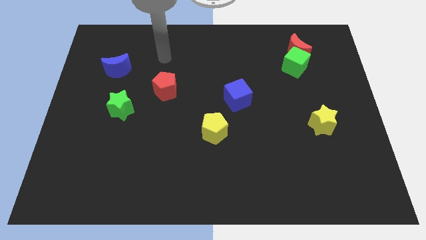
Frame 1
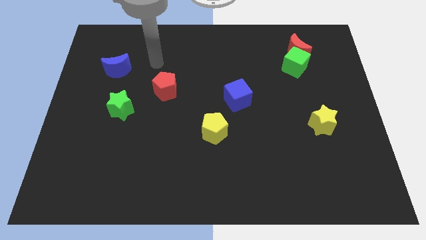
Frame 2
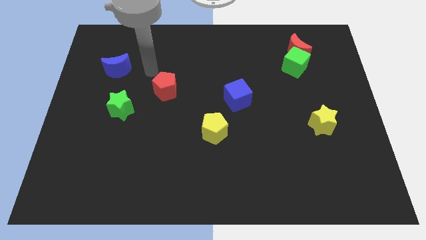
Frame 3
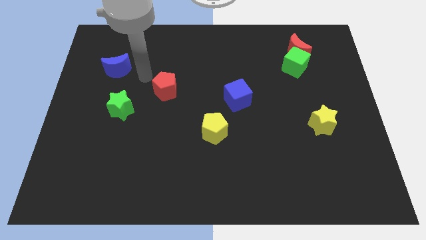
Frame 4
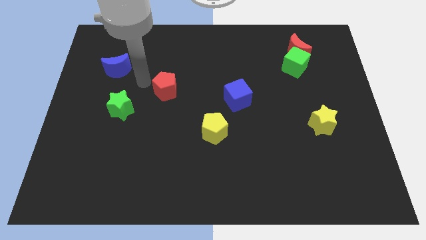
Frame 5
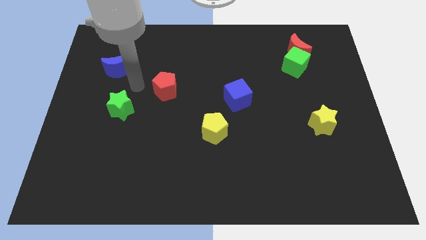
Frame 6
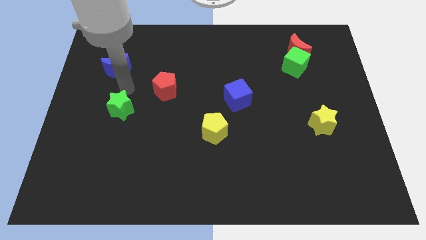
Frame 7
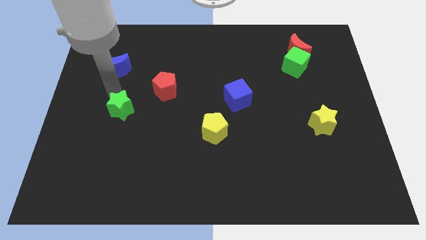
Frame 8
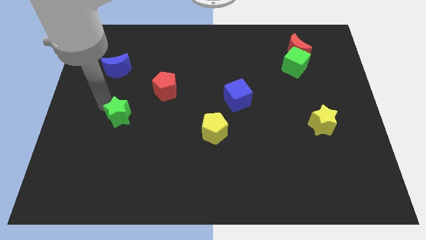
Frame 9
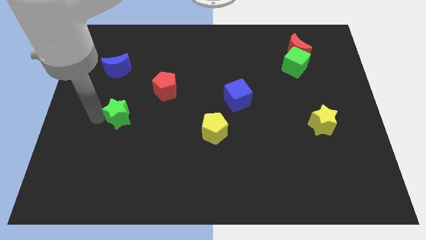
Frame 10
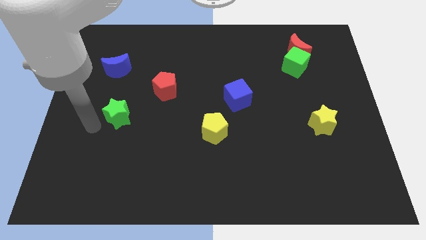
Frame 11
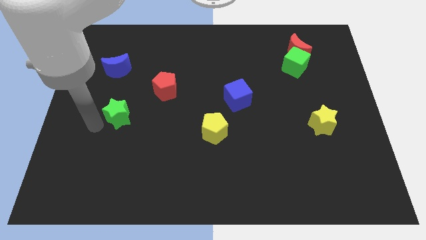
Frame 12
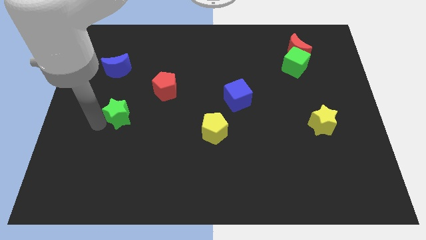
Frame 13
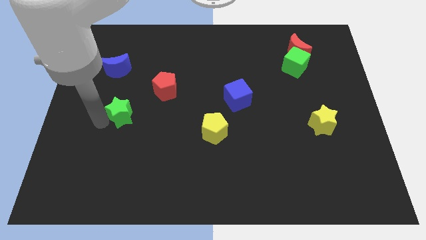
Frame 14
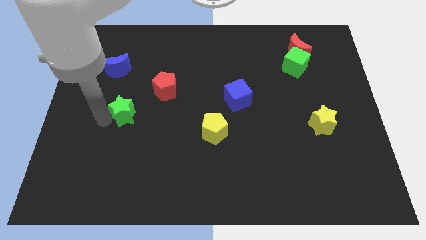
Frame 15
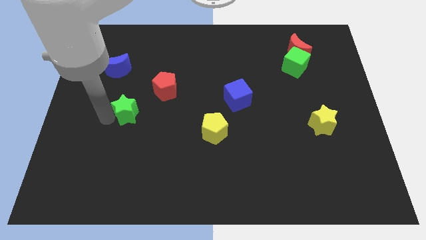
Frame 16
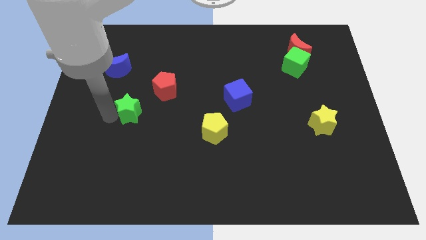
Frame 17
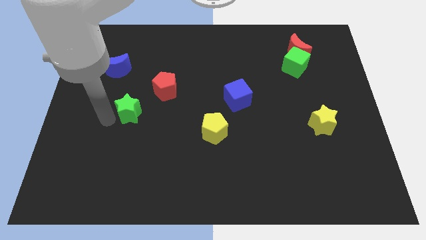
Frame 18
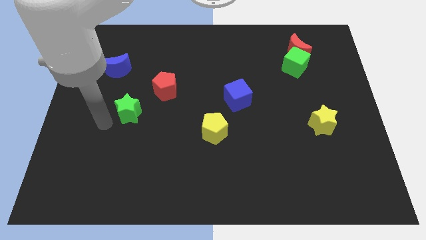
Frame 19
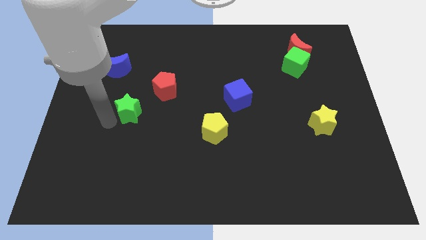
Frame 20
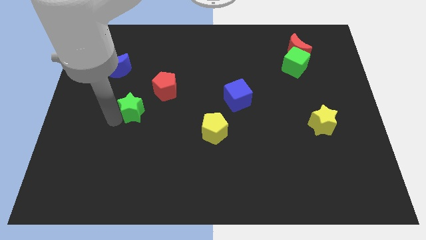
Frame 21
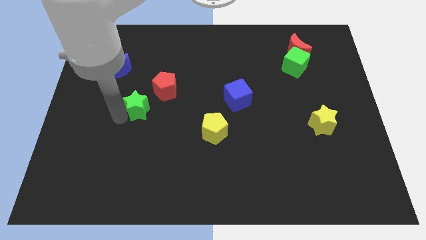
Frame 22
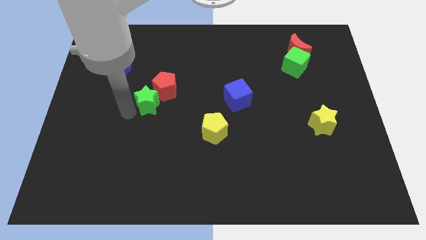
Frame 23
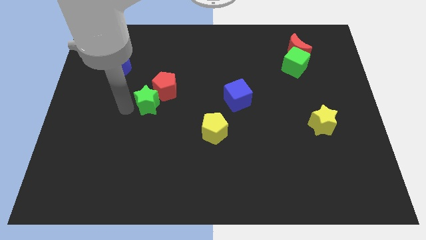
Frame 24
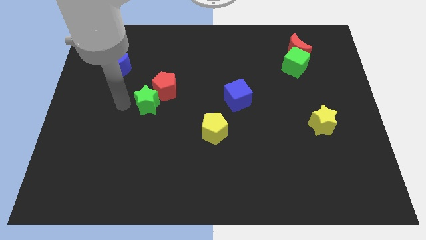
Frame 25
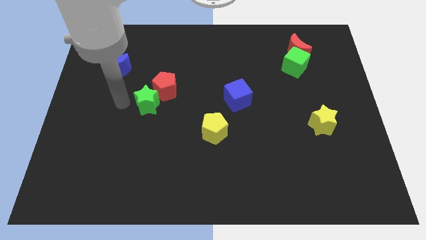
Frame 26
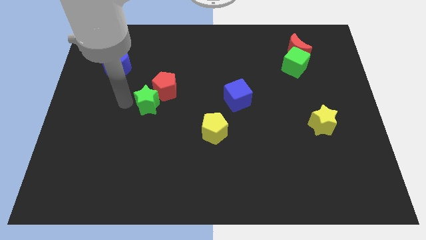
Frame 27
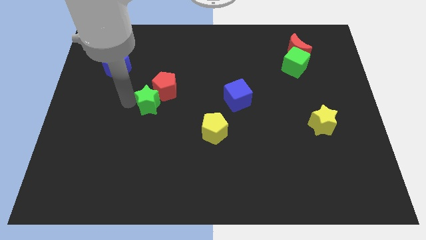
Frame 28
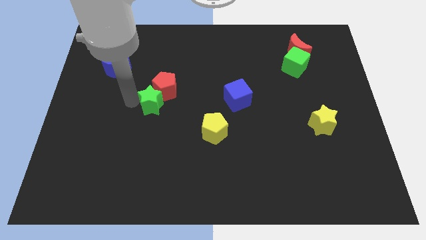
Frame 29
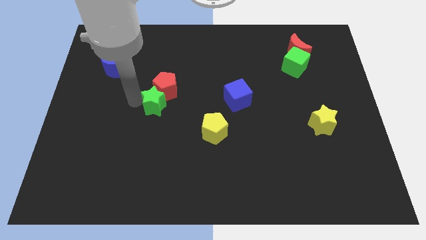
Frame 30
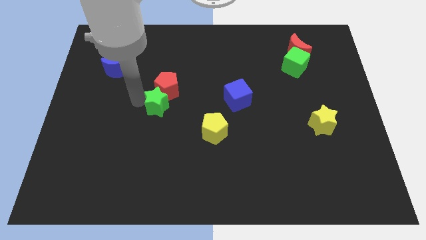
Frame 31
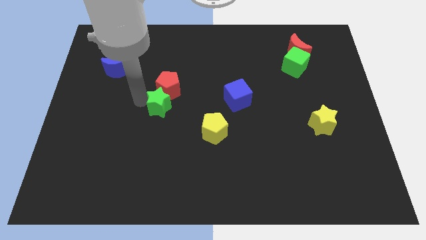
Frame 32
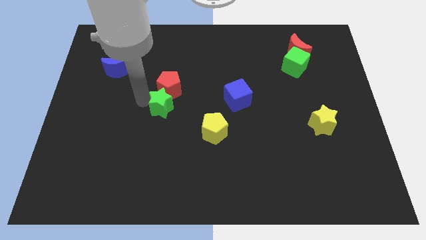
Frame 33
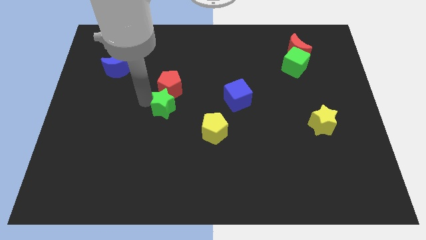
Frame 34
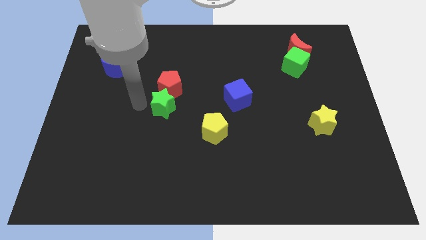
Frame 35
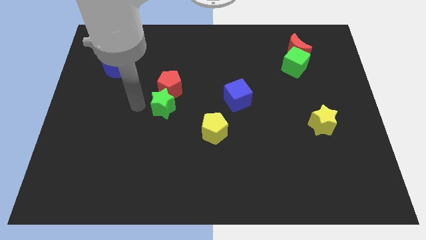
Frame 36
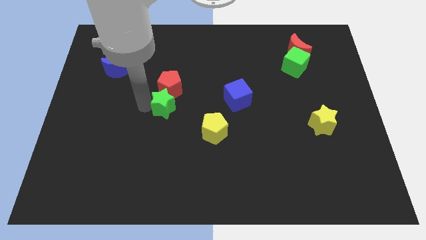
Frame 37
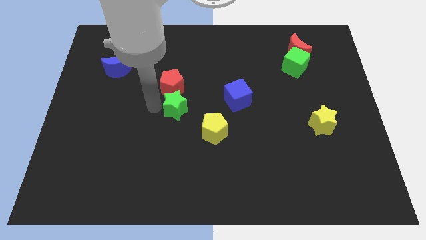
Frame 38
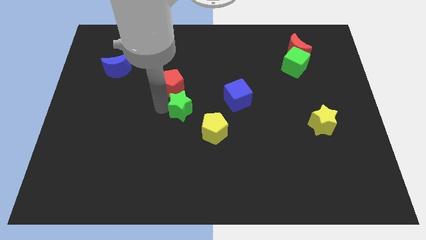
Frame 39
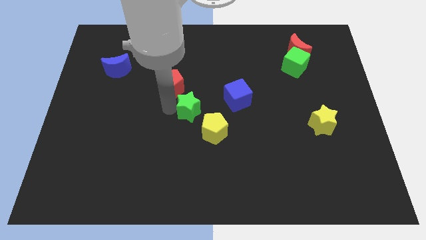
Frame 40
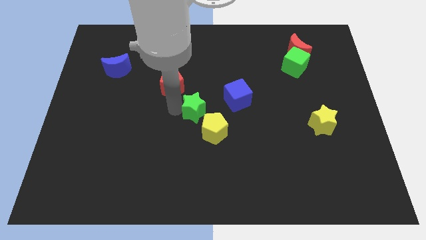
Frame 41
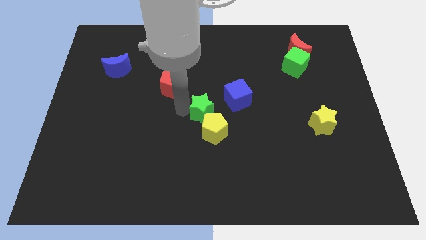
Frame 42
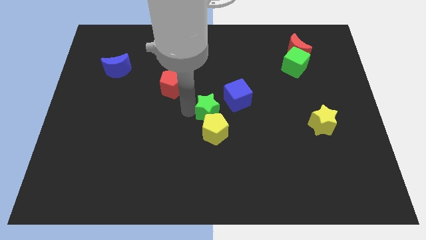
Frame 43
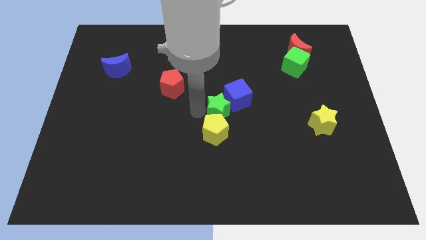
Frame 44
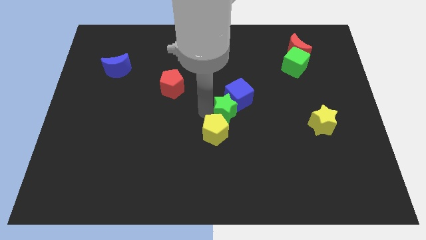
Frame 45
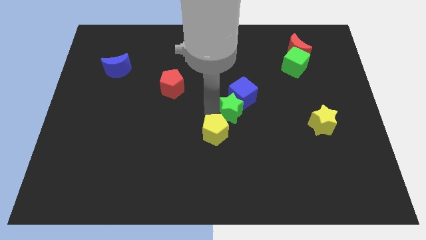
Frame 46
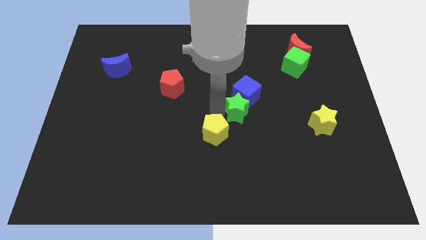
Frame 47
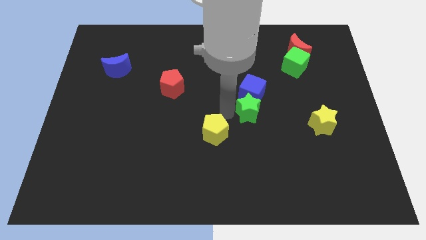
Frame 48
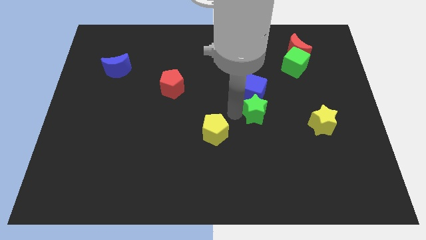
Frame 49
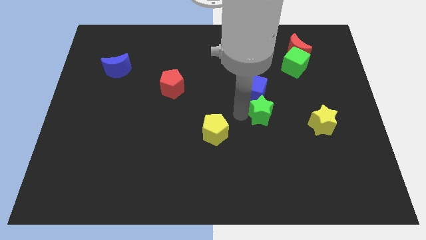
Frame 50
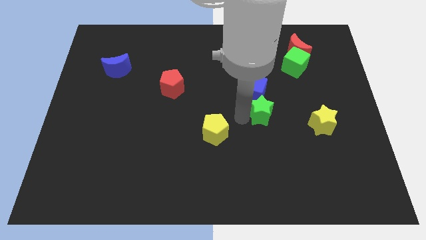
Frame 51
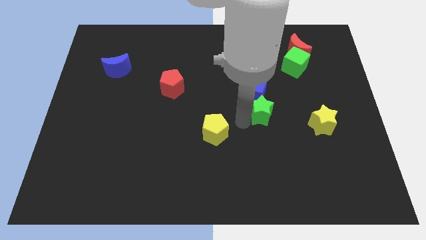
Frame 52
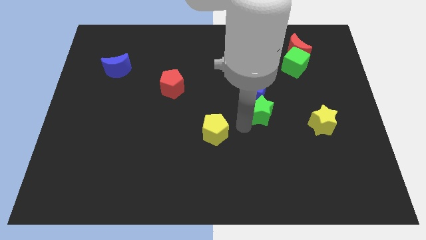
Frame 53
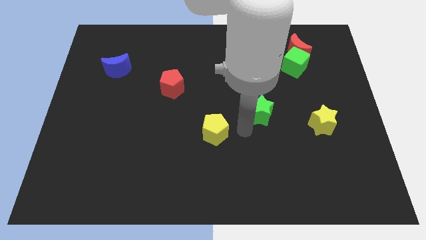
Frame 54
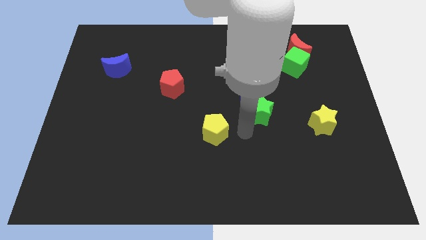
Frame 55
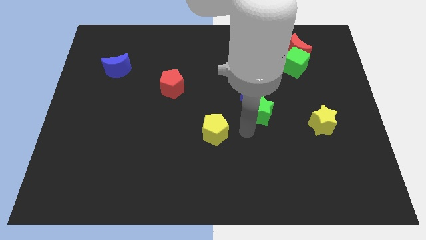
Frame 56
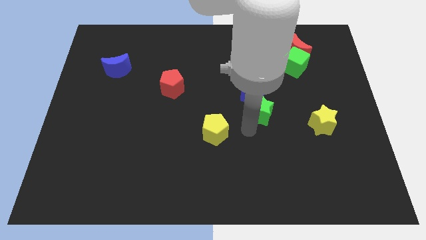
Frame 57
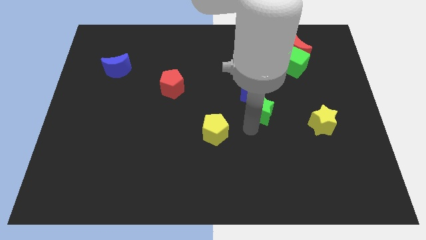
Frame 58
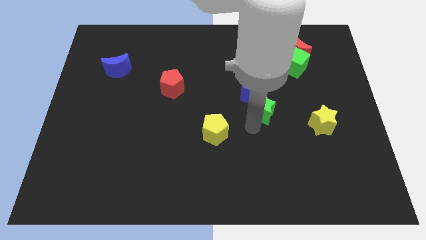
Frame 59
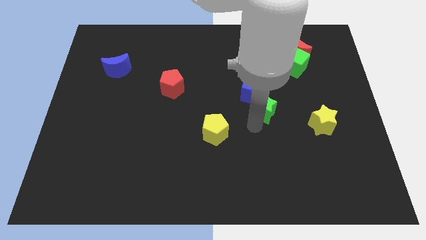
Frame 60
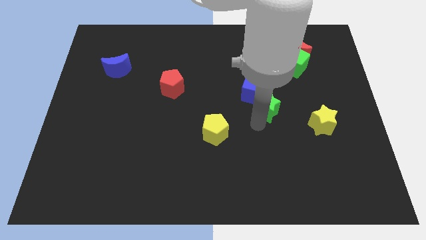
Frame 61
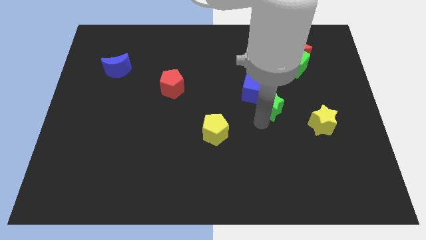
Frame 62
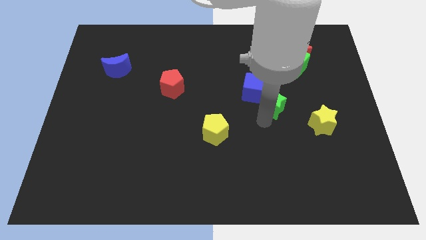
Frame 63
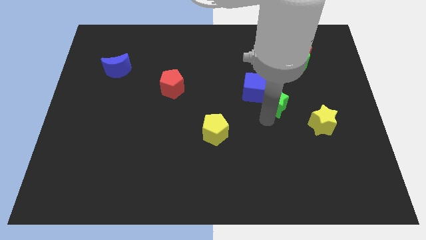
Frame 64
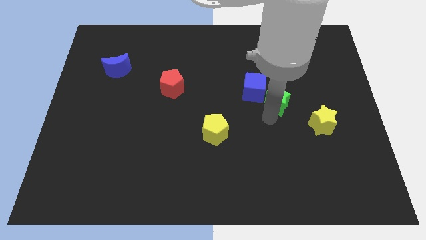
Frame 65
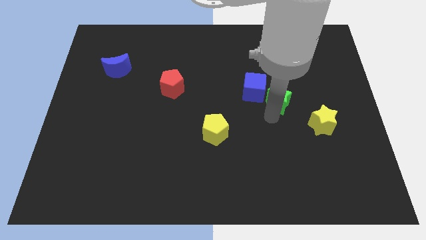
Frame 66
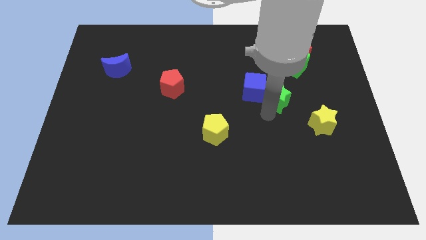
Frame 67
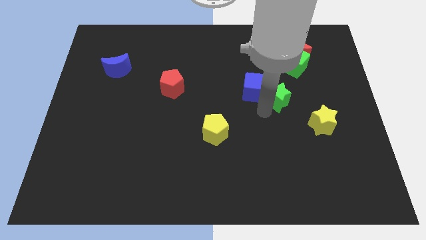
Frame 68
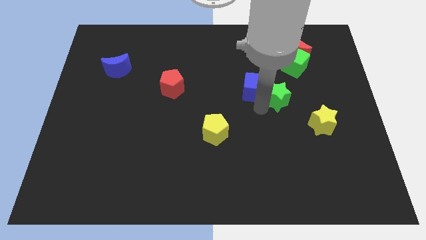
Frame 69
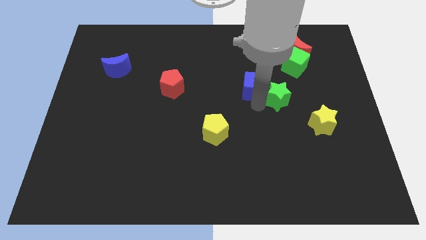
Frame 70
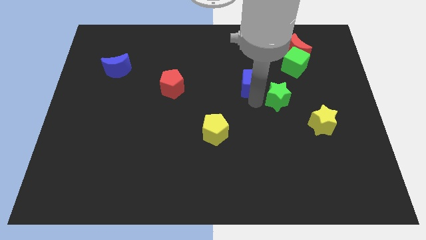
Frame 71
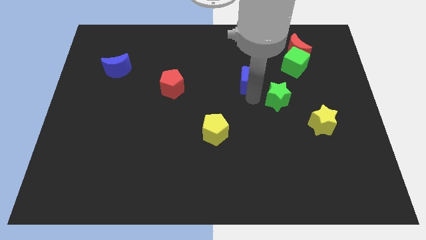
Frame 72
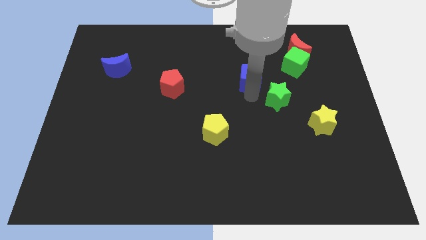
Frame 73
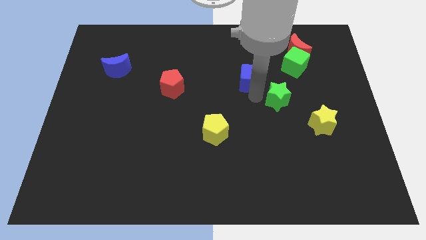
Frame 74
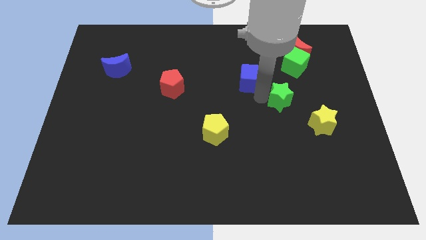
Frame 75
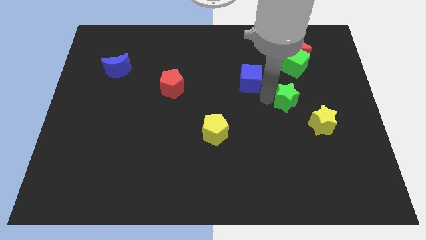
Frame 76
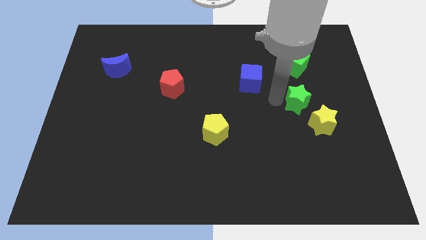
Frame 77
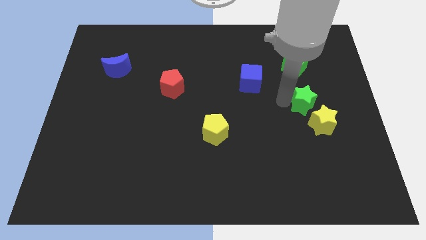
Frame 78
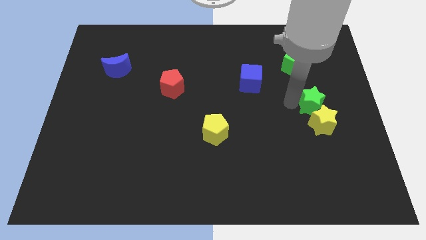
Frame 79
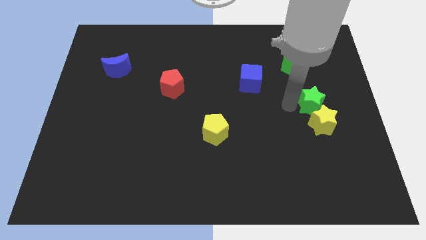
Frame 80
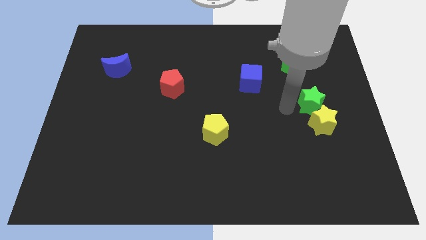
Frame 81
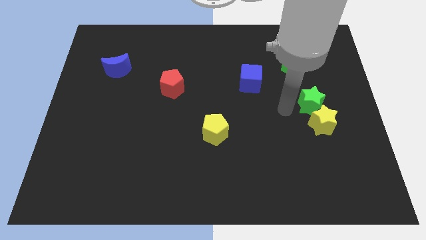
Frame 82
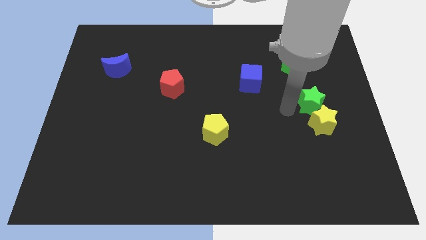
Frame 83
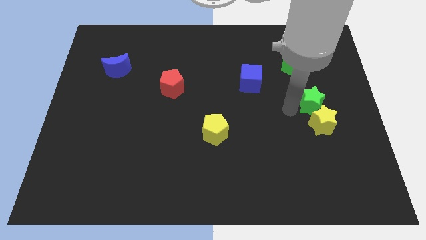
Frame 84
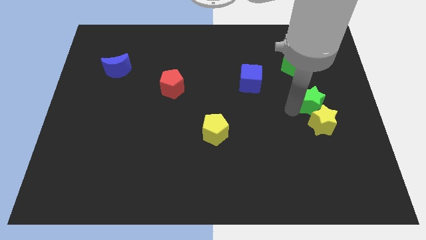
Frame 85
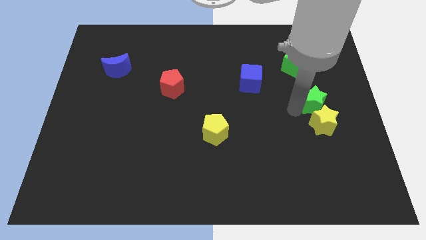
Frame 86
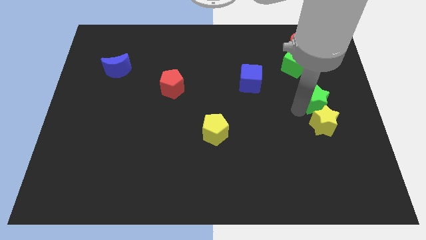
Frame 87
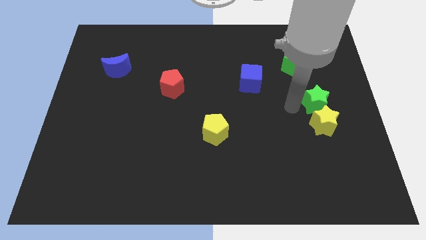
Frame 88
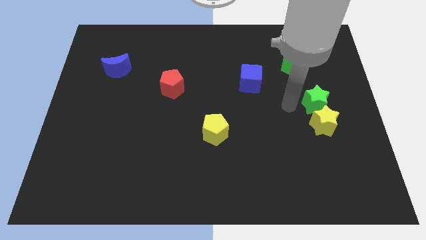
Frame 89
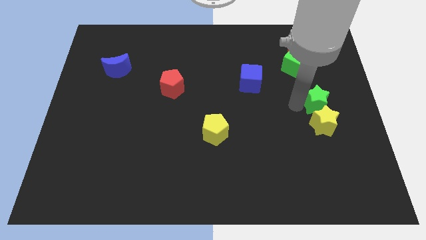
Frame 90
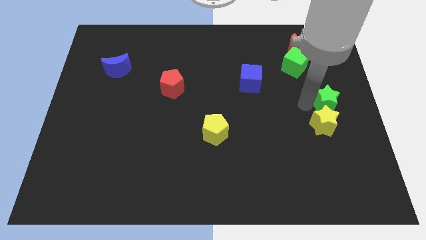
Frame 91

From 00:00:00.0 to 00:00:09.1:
push the green star to the right side of the board
